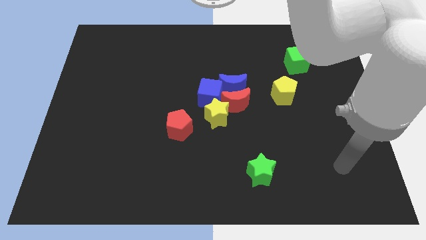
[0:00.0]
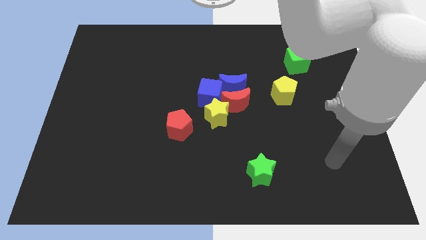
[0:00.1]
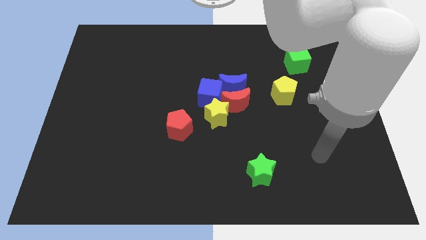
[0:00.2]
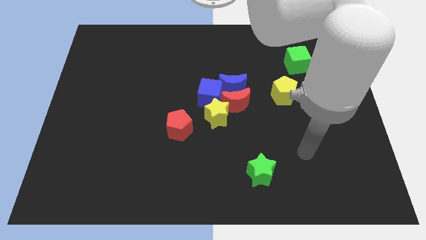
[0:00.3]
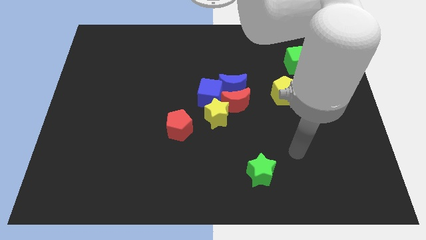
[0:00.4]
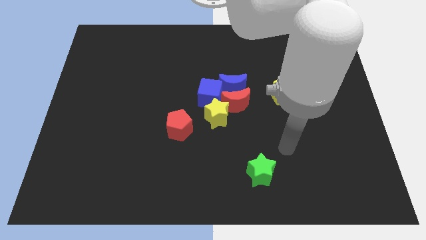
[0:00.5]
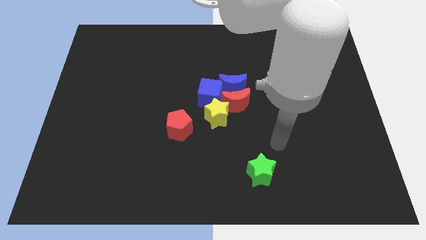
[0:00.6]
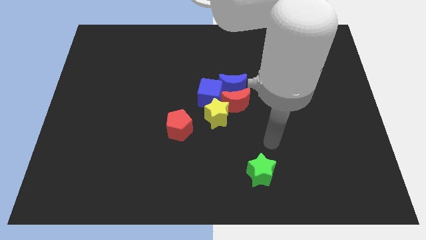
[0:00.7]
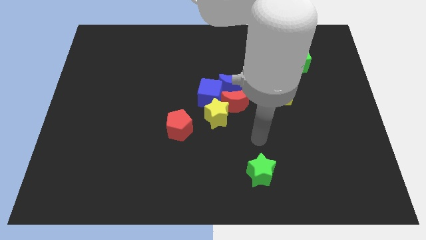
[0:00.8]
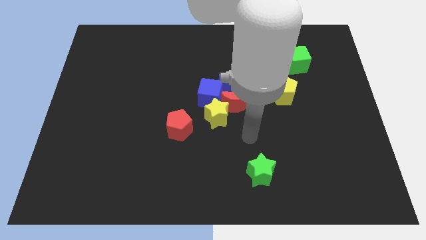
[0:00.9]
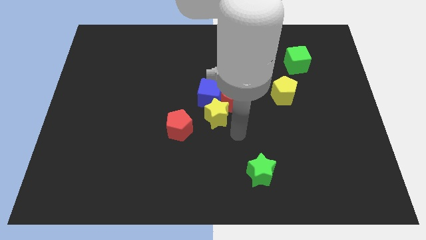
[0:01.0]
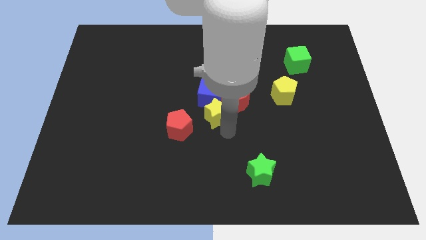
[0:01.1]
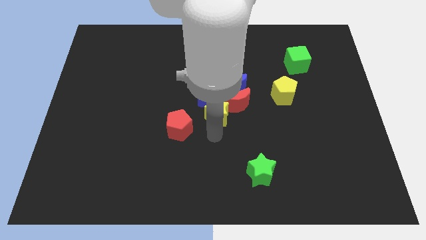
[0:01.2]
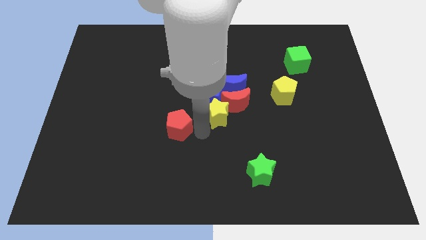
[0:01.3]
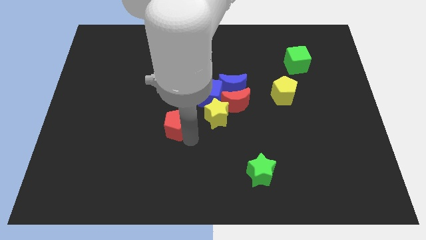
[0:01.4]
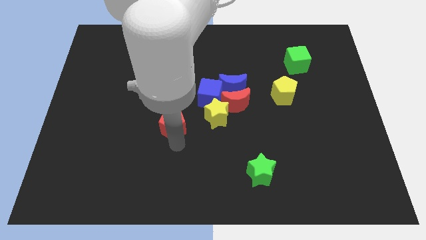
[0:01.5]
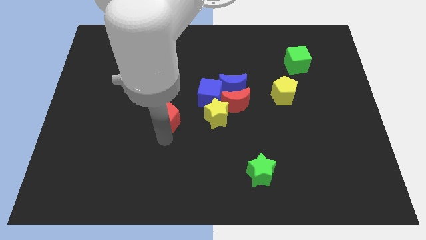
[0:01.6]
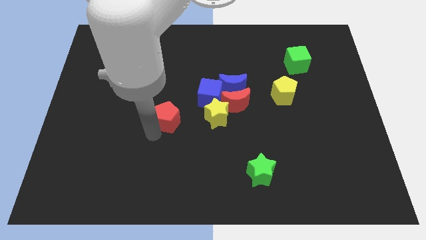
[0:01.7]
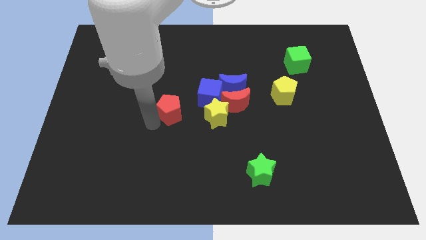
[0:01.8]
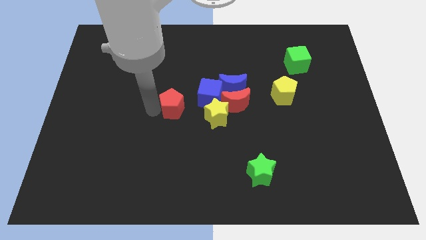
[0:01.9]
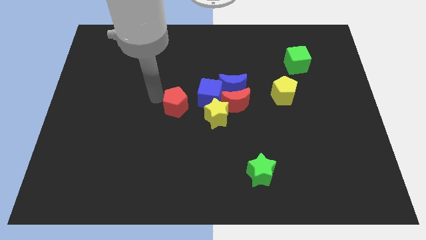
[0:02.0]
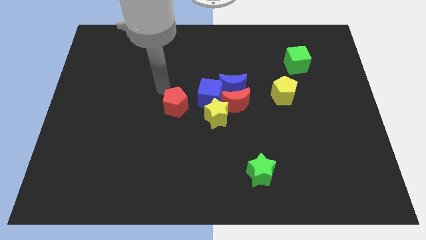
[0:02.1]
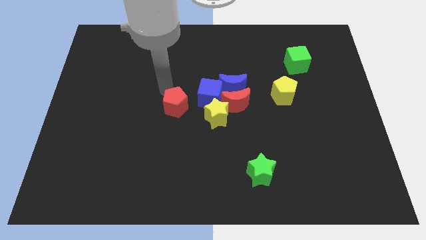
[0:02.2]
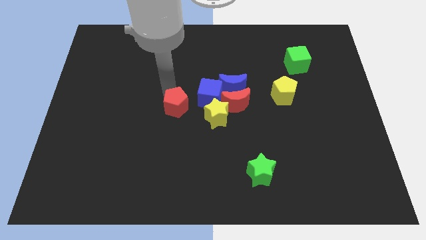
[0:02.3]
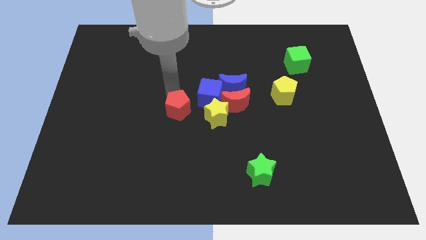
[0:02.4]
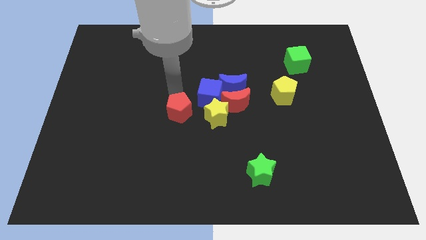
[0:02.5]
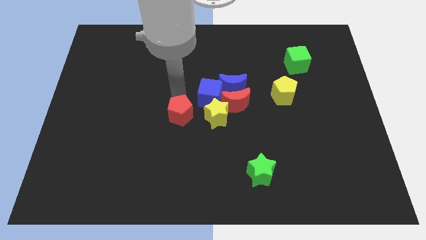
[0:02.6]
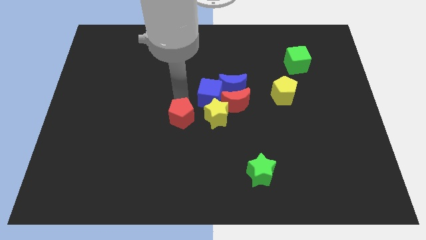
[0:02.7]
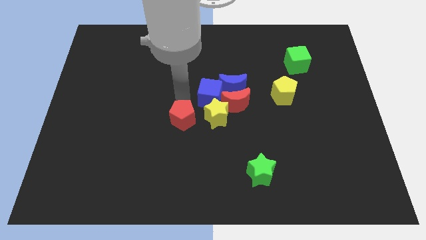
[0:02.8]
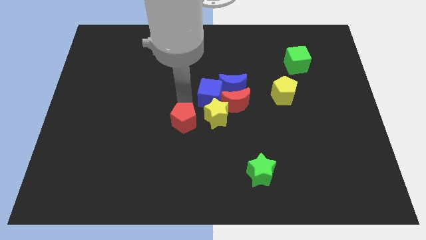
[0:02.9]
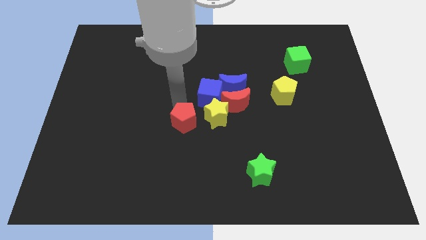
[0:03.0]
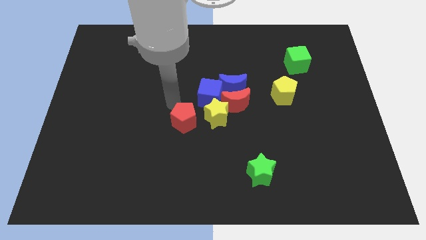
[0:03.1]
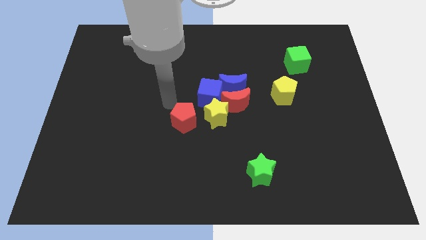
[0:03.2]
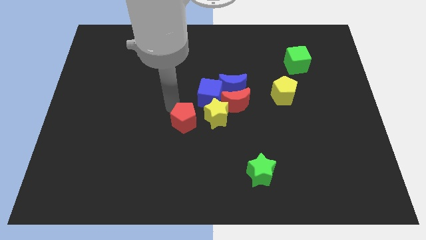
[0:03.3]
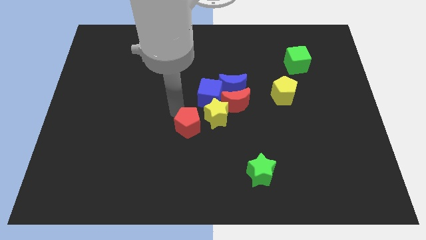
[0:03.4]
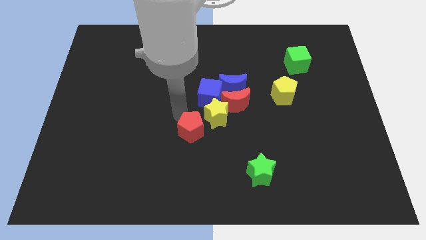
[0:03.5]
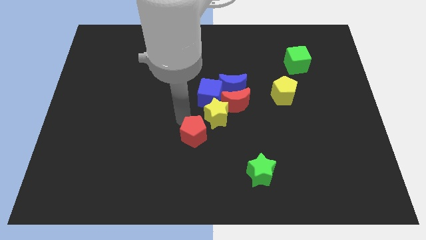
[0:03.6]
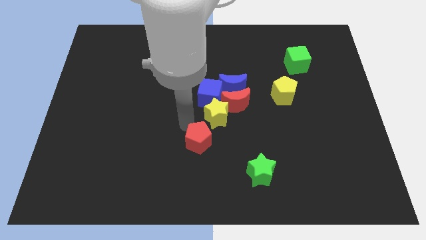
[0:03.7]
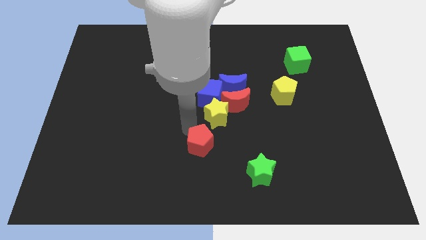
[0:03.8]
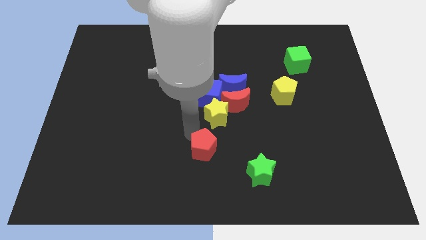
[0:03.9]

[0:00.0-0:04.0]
slightly push the red pentagon diagonally down and to the right

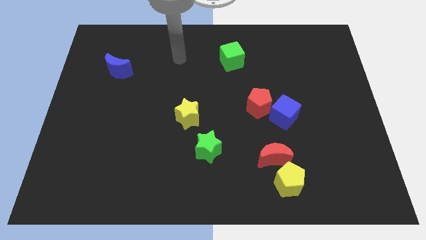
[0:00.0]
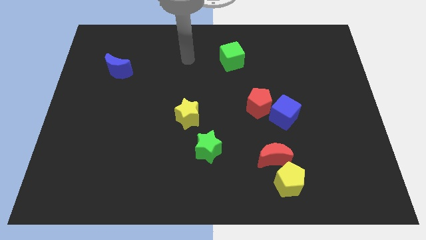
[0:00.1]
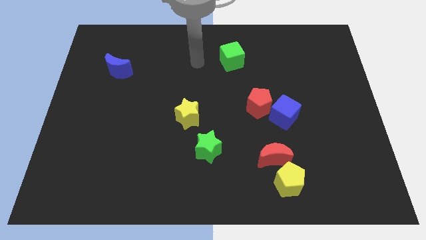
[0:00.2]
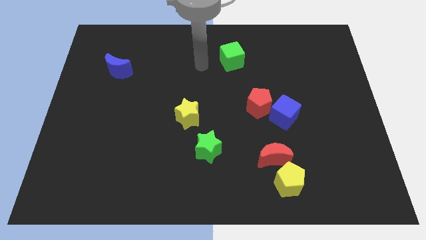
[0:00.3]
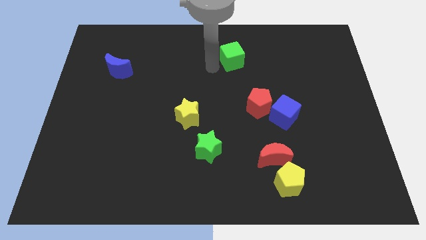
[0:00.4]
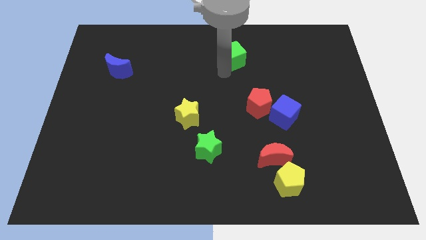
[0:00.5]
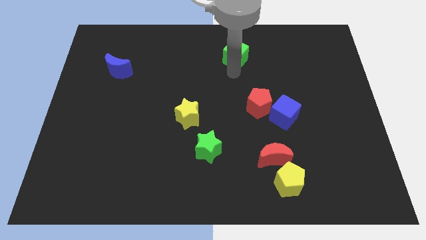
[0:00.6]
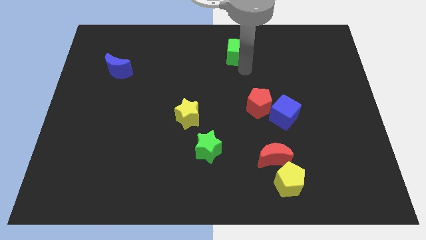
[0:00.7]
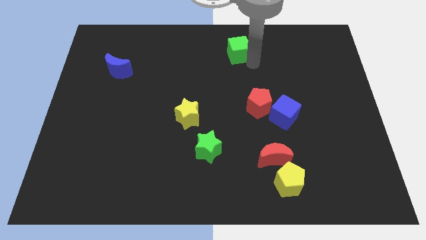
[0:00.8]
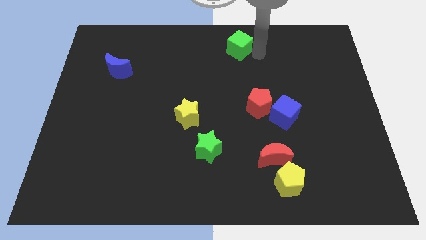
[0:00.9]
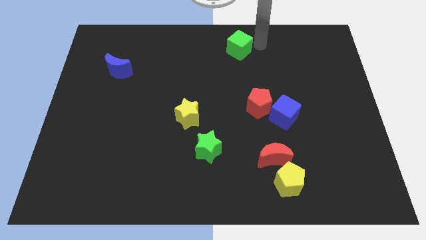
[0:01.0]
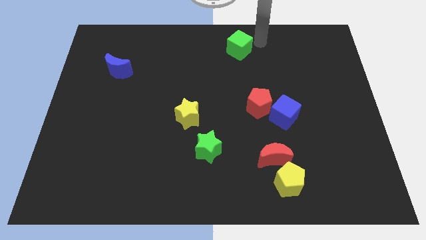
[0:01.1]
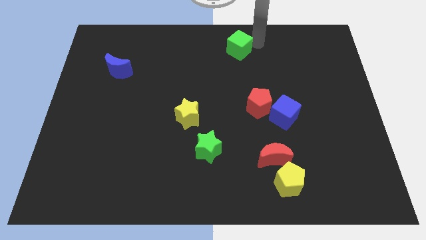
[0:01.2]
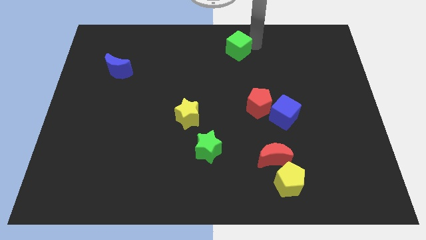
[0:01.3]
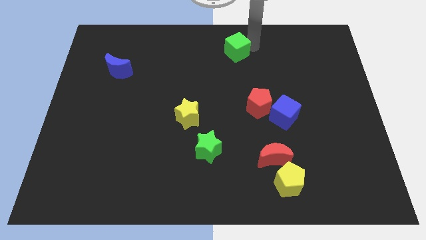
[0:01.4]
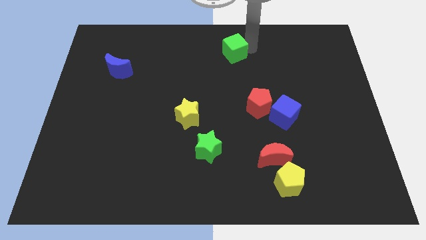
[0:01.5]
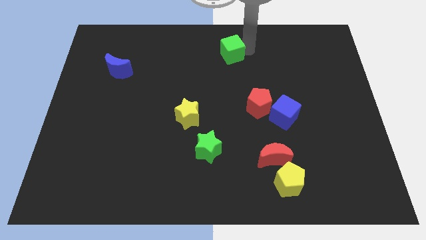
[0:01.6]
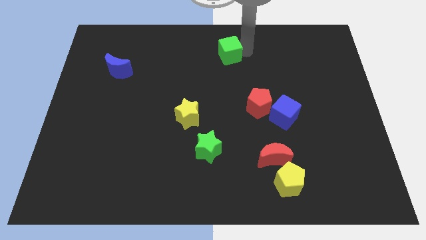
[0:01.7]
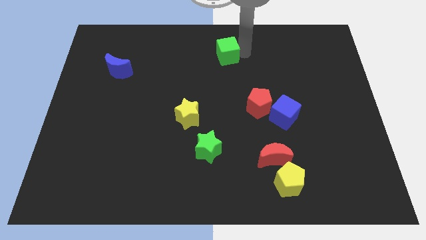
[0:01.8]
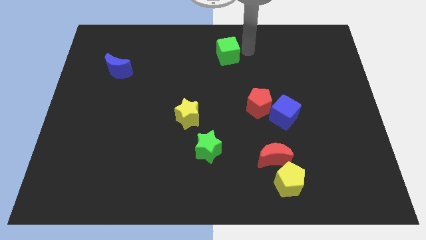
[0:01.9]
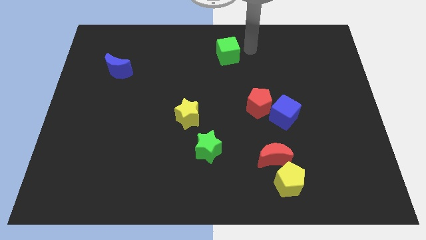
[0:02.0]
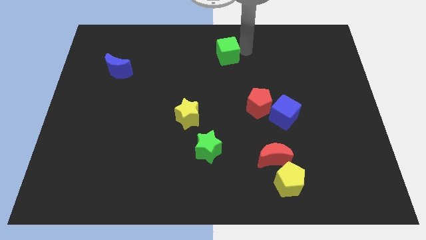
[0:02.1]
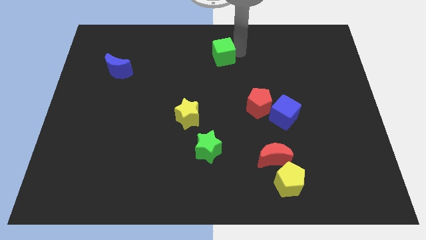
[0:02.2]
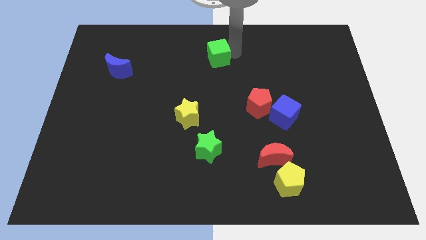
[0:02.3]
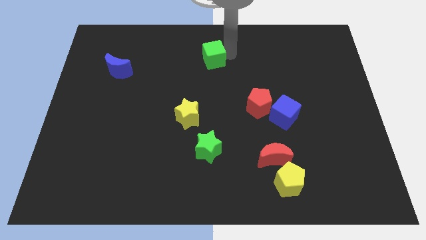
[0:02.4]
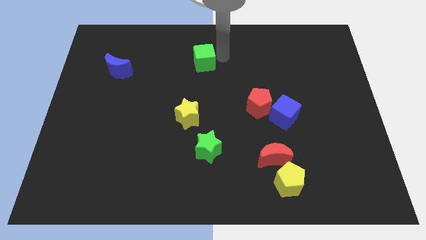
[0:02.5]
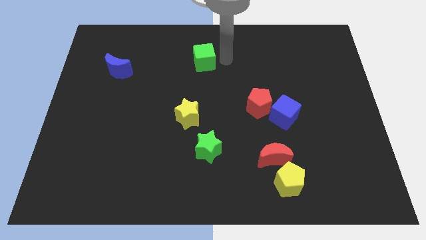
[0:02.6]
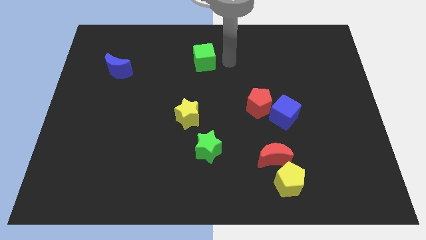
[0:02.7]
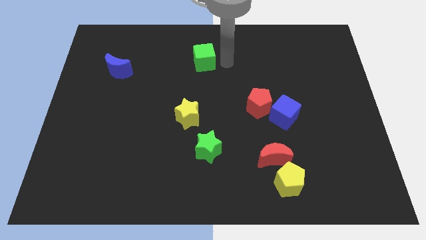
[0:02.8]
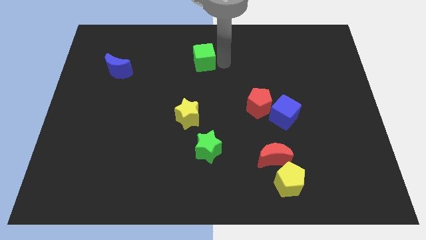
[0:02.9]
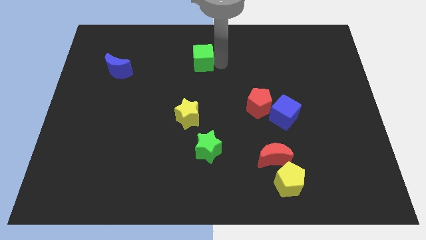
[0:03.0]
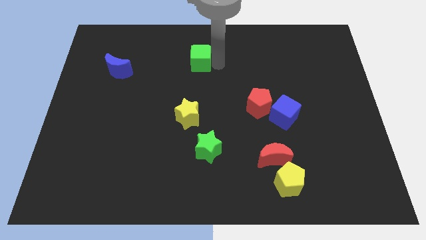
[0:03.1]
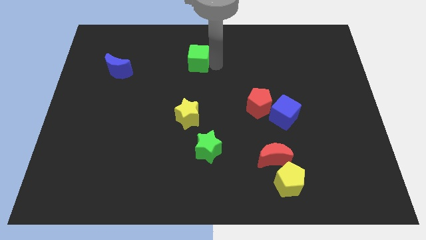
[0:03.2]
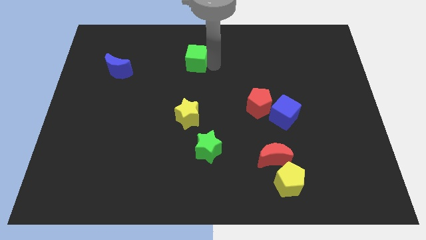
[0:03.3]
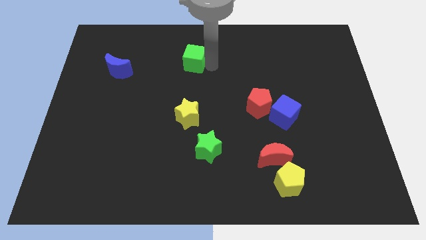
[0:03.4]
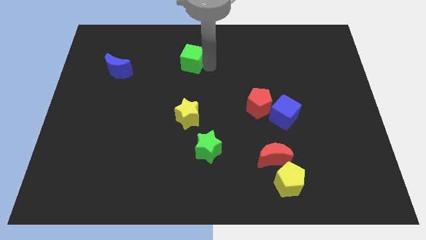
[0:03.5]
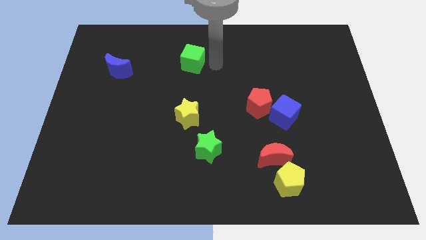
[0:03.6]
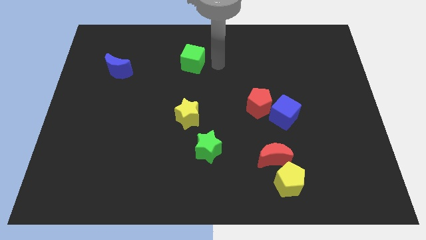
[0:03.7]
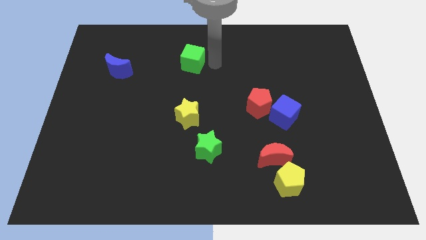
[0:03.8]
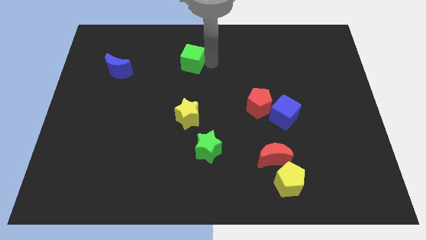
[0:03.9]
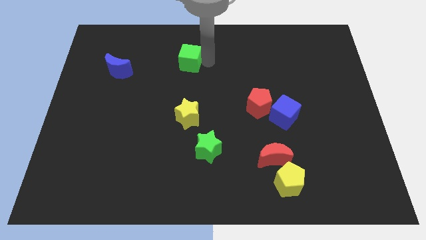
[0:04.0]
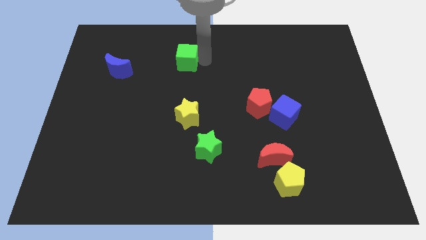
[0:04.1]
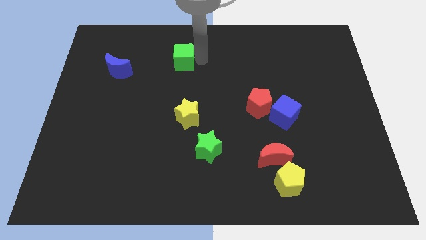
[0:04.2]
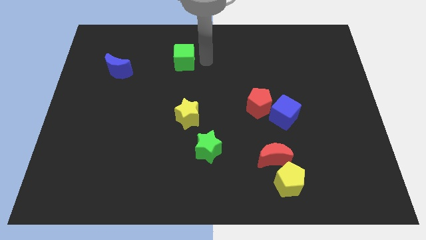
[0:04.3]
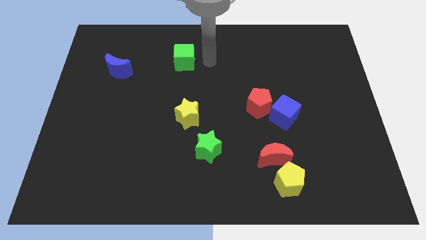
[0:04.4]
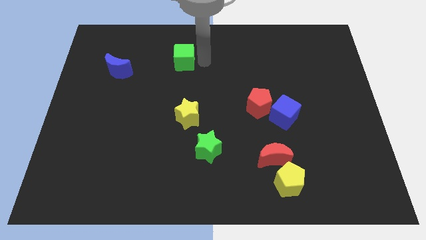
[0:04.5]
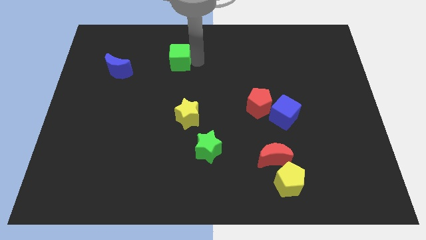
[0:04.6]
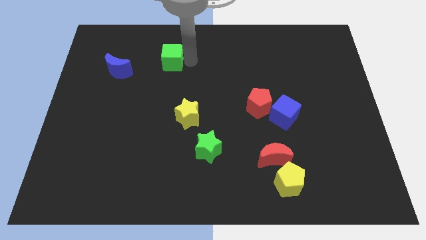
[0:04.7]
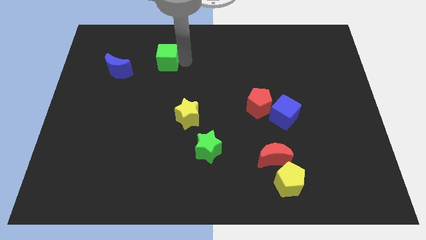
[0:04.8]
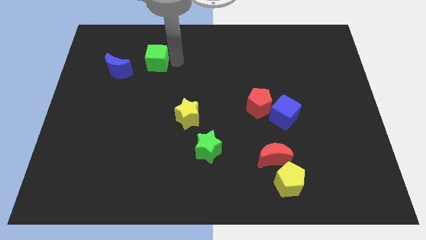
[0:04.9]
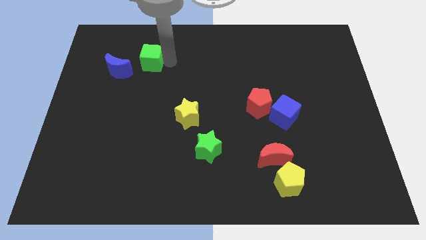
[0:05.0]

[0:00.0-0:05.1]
push the green cube left
